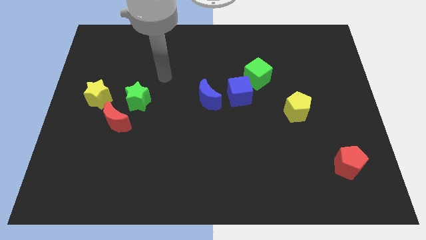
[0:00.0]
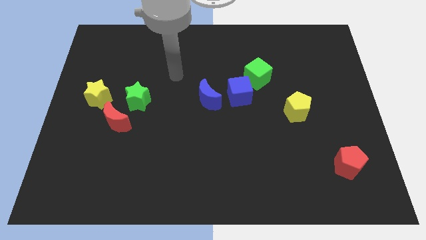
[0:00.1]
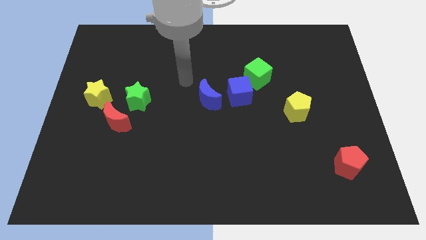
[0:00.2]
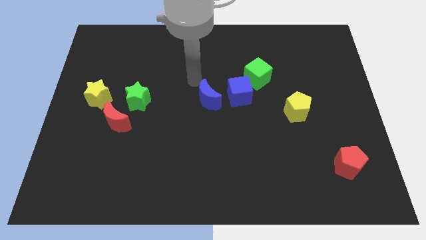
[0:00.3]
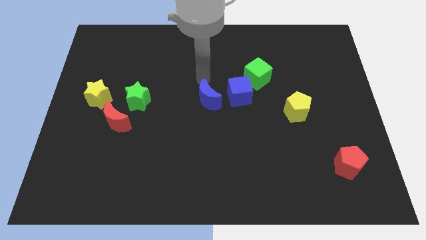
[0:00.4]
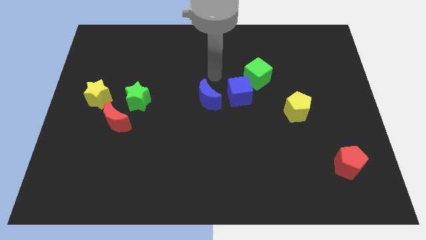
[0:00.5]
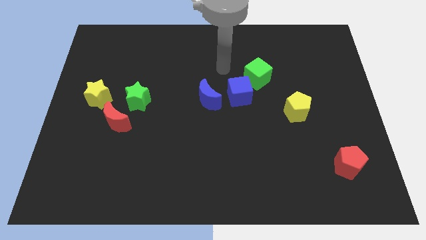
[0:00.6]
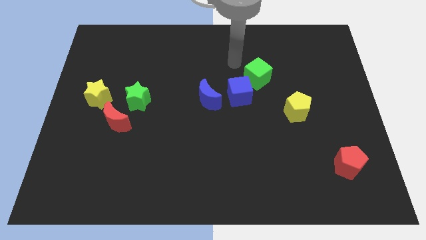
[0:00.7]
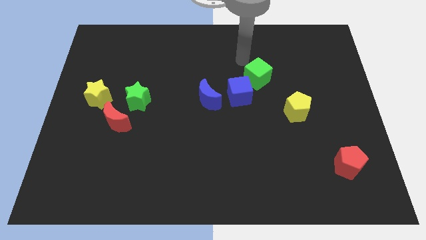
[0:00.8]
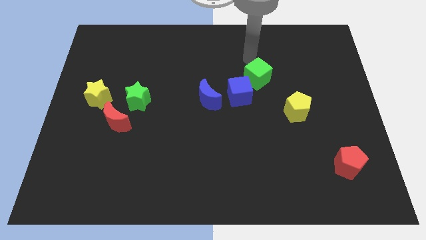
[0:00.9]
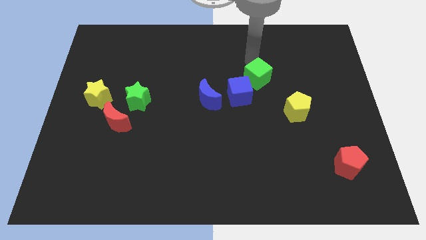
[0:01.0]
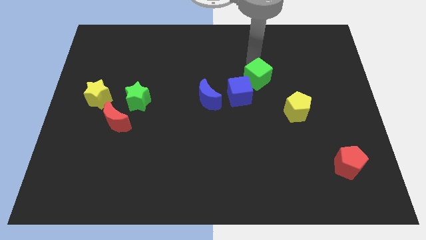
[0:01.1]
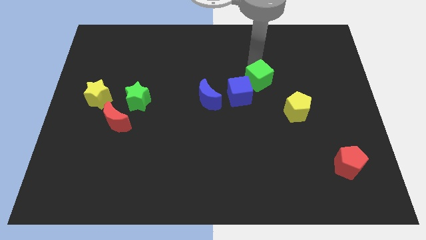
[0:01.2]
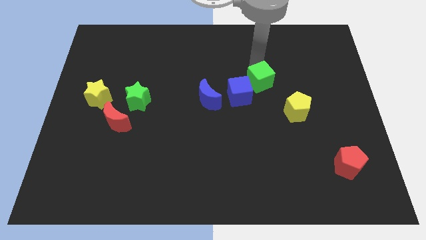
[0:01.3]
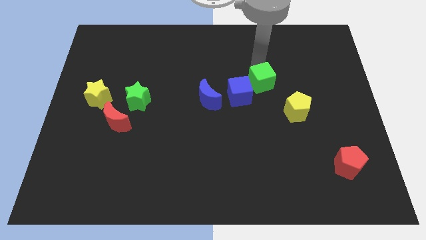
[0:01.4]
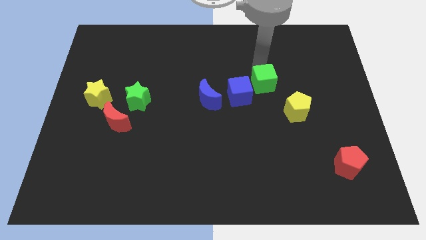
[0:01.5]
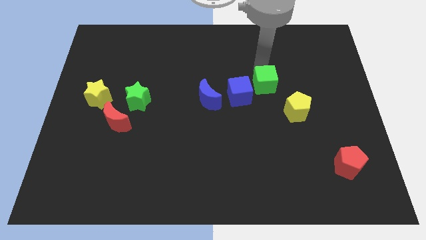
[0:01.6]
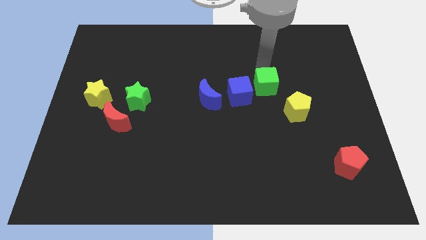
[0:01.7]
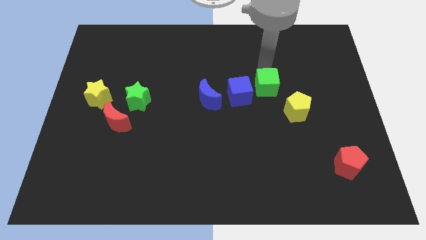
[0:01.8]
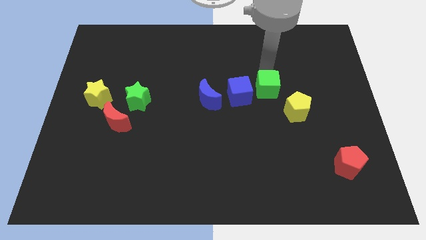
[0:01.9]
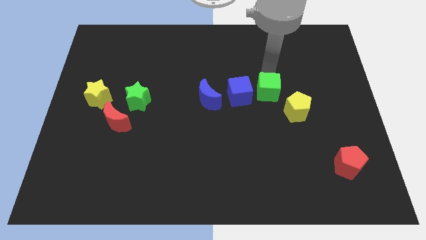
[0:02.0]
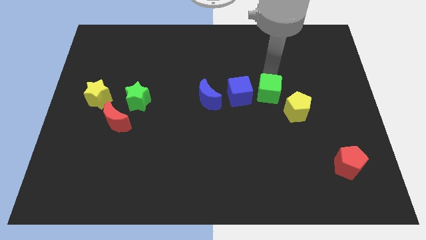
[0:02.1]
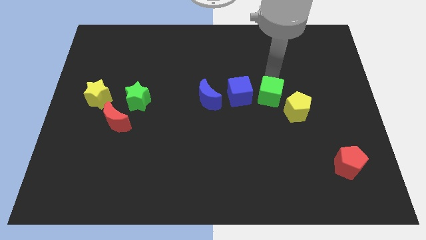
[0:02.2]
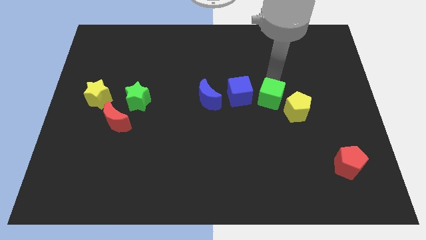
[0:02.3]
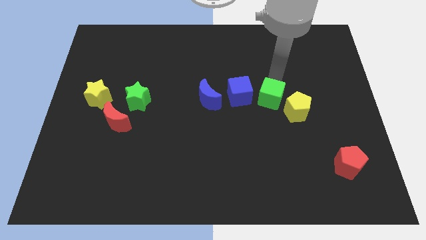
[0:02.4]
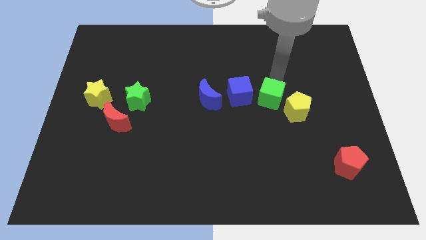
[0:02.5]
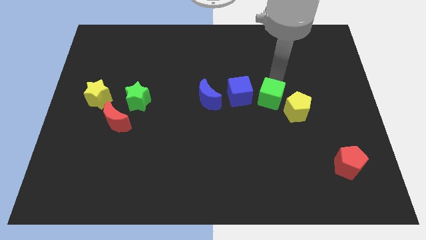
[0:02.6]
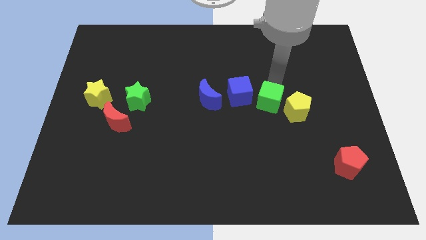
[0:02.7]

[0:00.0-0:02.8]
push the green cube down a little

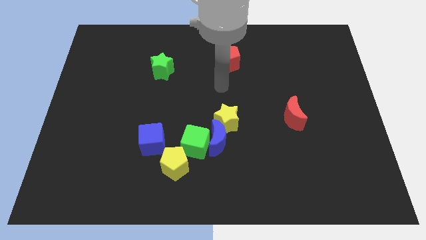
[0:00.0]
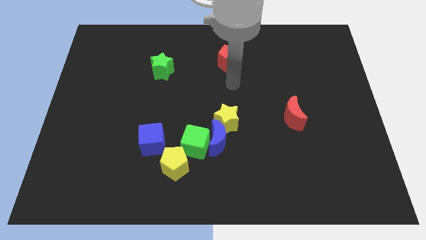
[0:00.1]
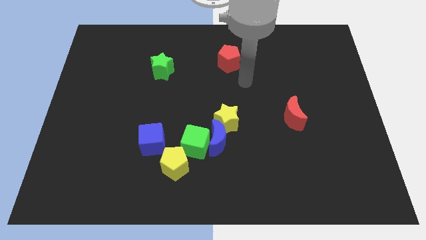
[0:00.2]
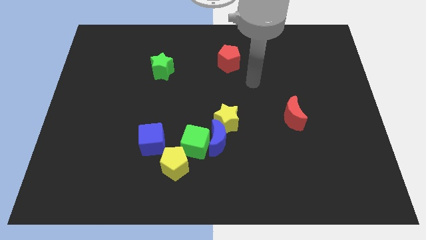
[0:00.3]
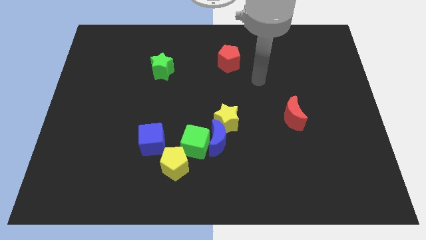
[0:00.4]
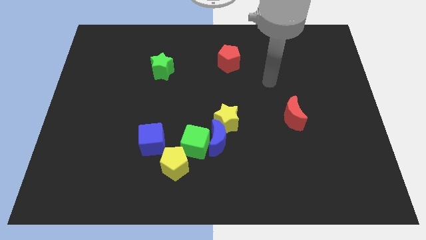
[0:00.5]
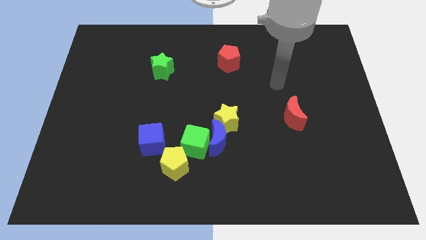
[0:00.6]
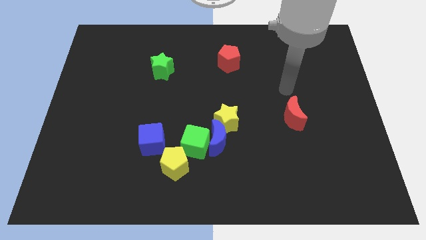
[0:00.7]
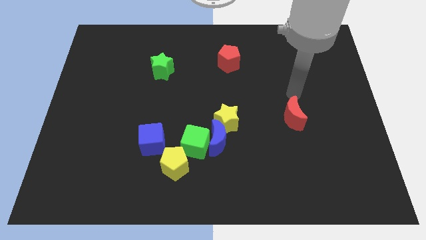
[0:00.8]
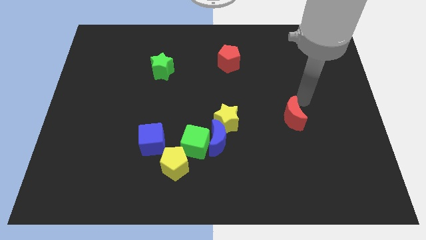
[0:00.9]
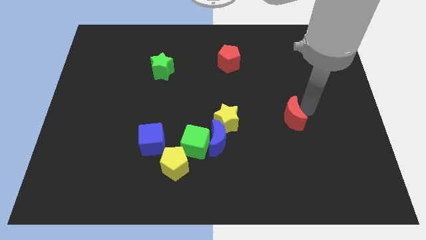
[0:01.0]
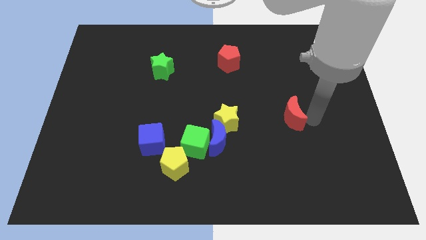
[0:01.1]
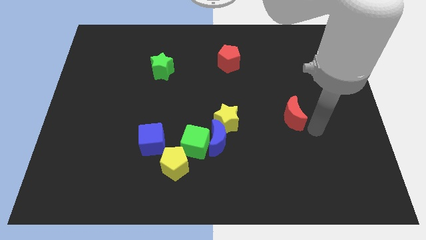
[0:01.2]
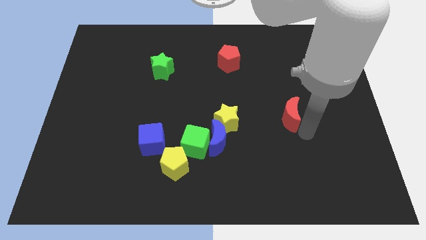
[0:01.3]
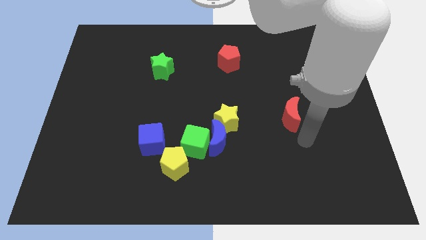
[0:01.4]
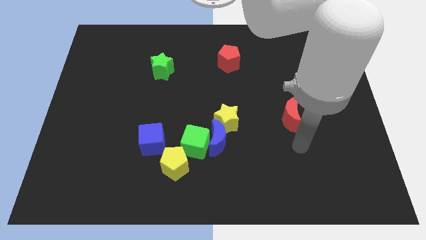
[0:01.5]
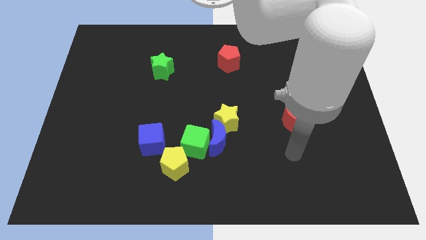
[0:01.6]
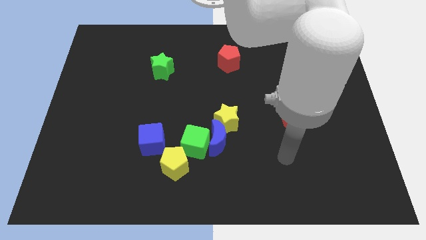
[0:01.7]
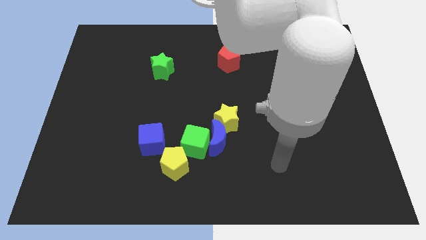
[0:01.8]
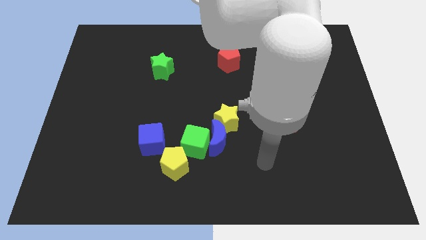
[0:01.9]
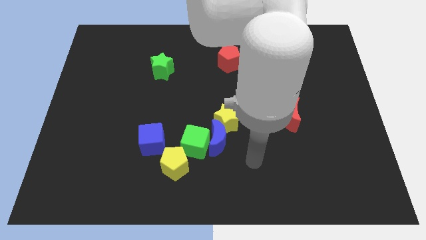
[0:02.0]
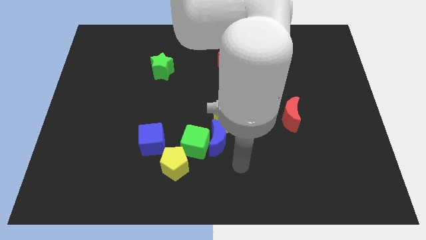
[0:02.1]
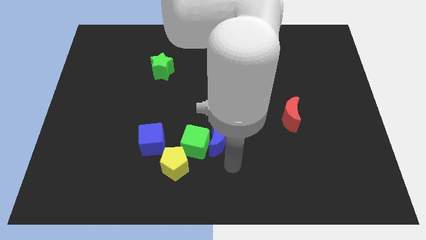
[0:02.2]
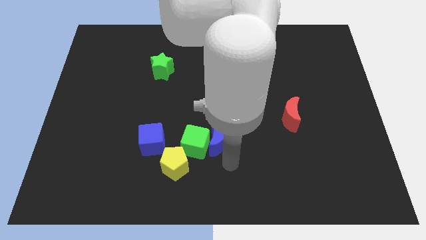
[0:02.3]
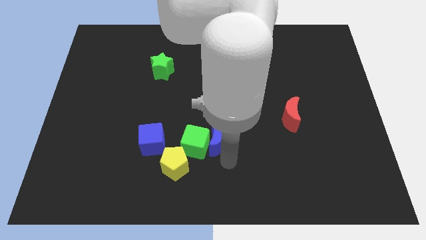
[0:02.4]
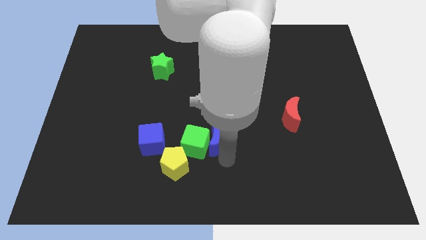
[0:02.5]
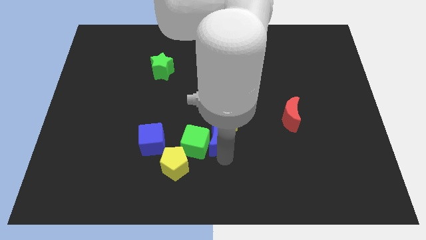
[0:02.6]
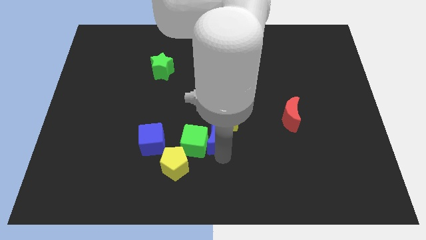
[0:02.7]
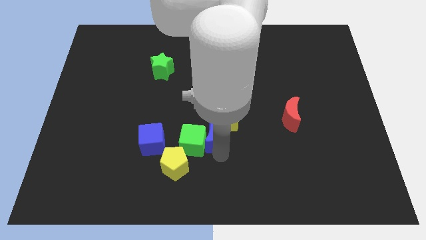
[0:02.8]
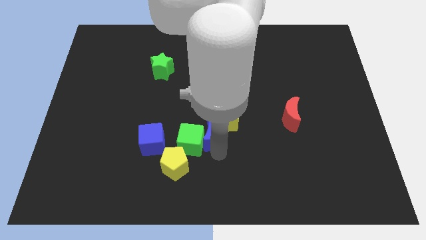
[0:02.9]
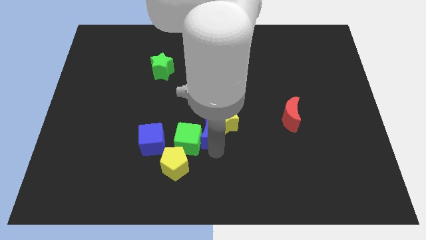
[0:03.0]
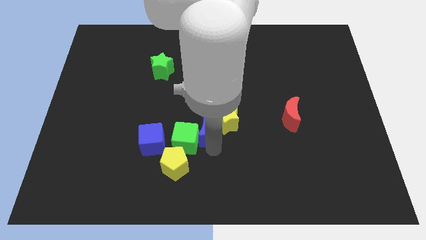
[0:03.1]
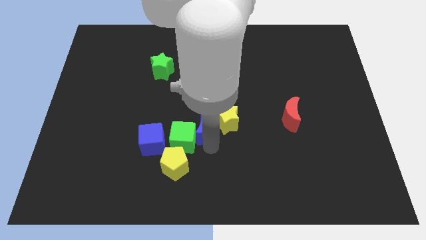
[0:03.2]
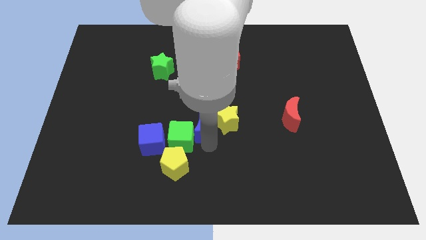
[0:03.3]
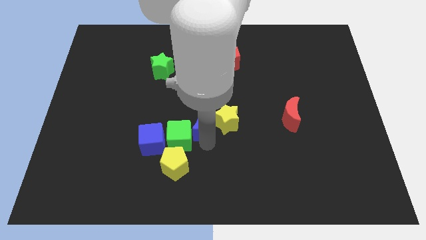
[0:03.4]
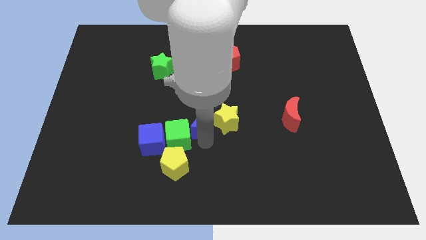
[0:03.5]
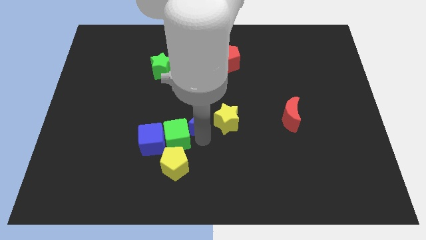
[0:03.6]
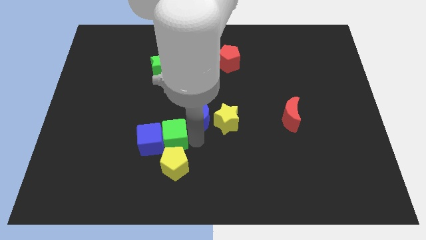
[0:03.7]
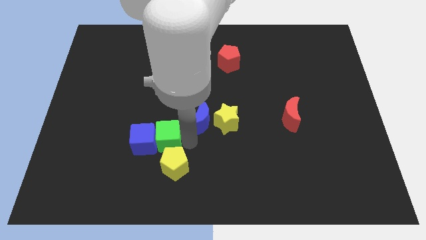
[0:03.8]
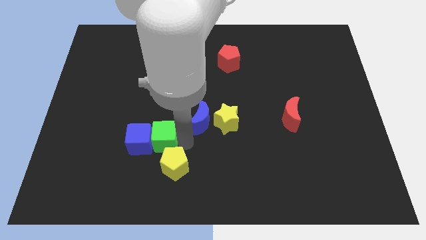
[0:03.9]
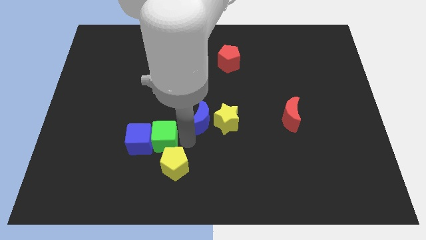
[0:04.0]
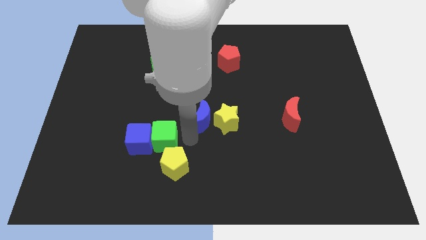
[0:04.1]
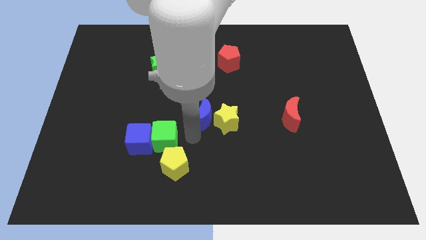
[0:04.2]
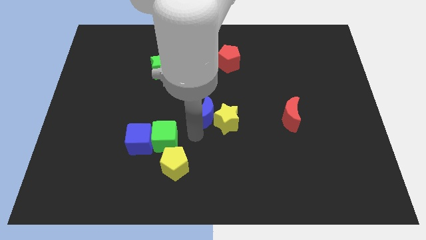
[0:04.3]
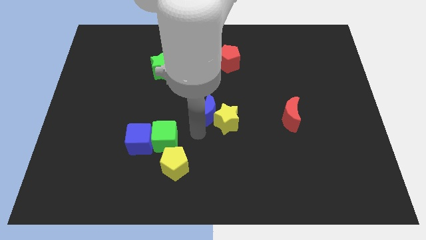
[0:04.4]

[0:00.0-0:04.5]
slide the blue moon upwards somewhat

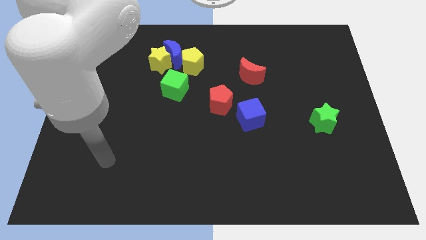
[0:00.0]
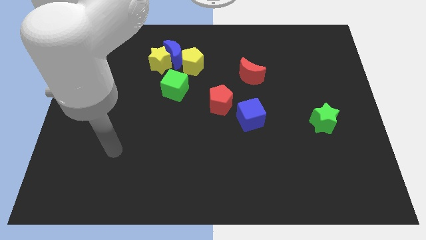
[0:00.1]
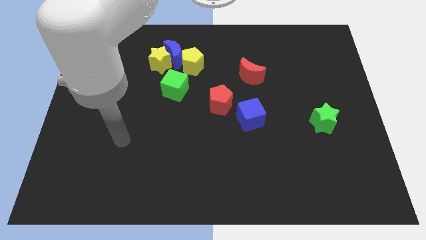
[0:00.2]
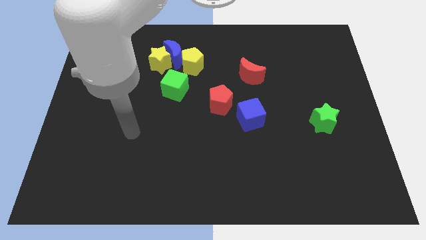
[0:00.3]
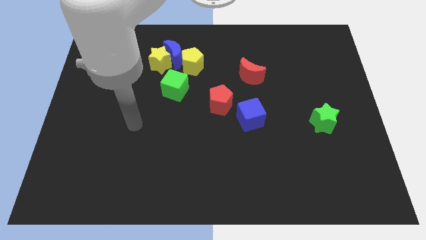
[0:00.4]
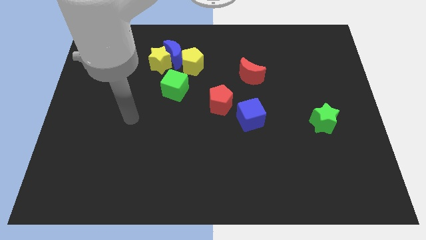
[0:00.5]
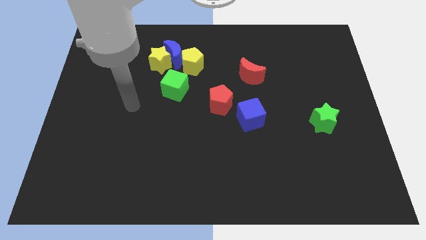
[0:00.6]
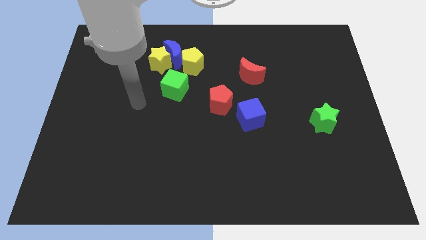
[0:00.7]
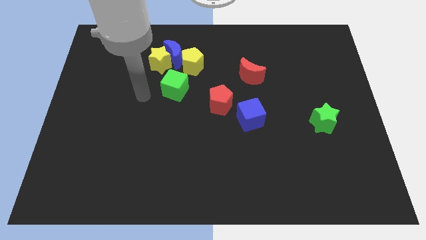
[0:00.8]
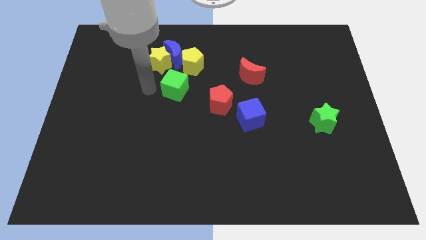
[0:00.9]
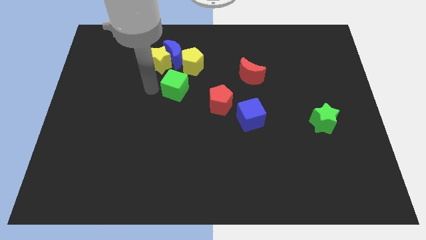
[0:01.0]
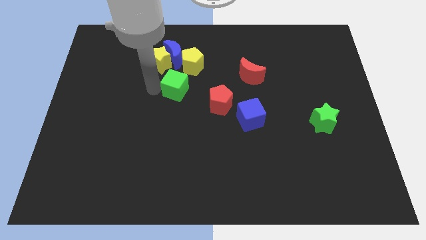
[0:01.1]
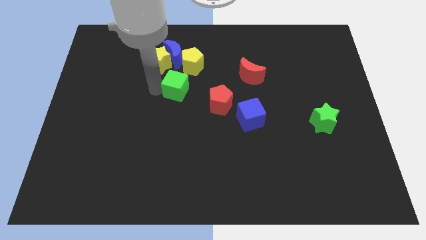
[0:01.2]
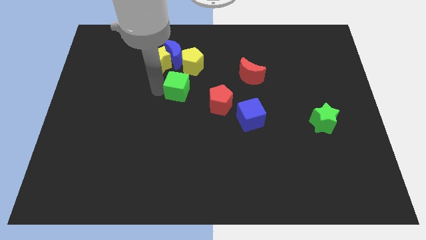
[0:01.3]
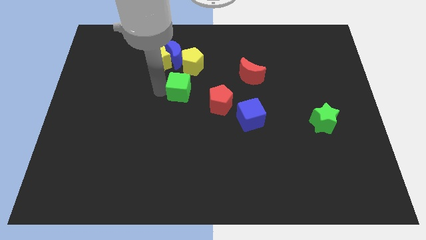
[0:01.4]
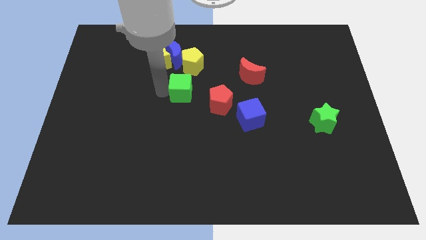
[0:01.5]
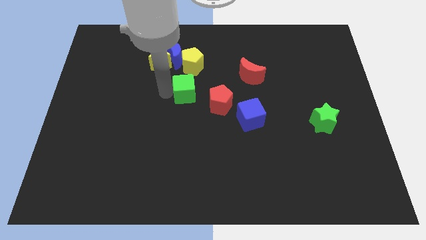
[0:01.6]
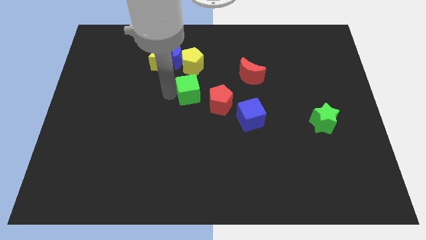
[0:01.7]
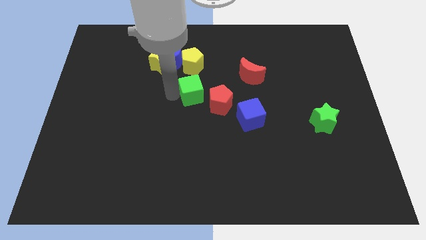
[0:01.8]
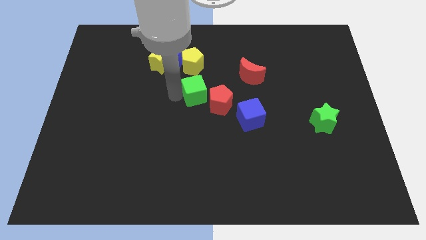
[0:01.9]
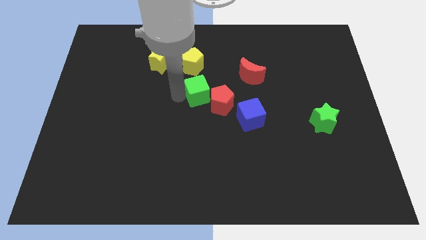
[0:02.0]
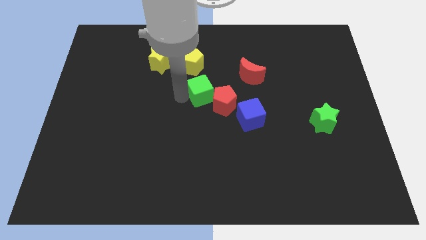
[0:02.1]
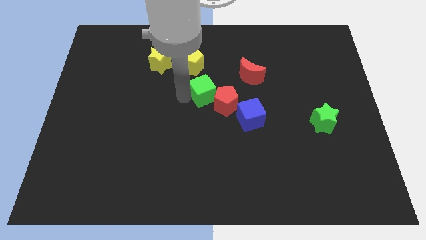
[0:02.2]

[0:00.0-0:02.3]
slide the green cube a little to the right
